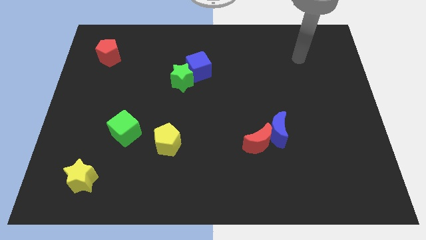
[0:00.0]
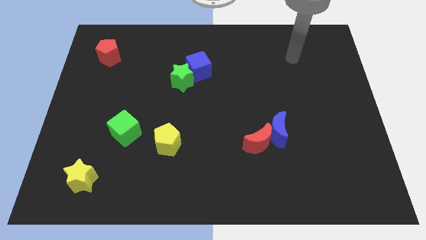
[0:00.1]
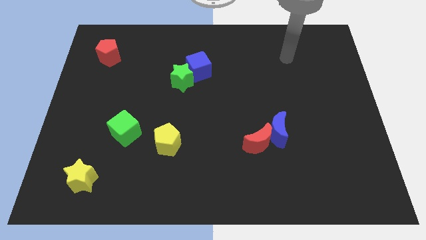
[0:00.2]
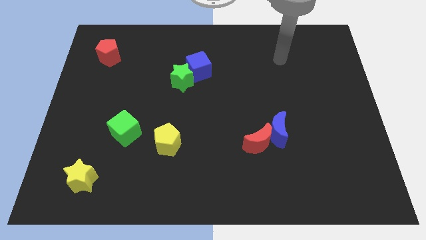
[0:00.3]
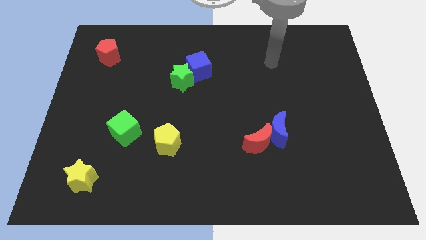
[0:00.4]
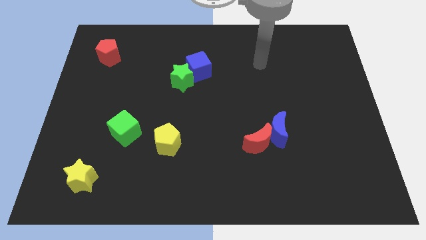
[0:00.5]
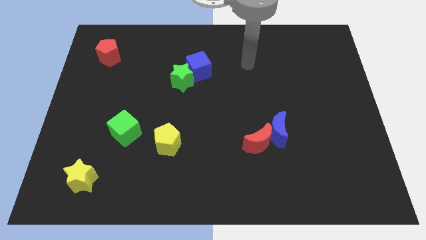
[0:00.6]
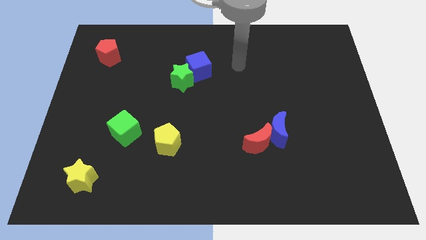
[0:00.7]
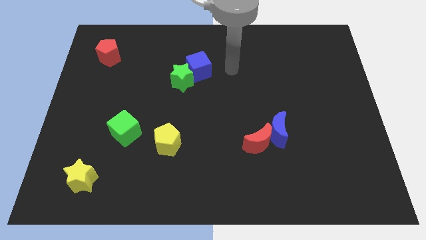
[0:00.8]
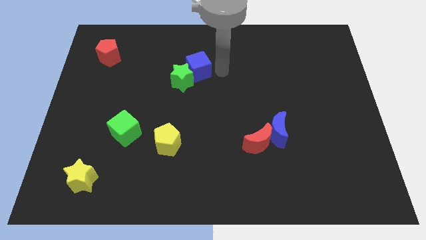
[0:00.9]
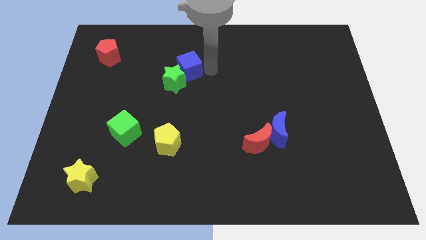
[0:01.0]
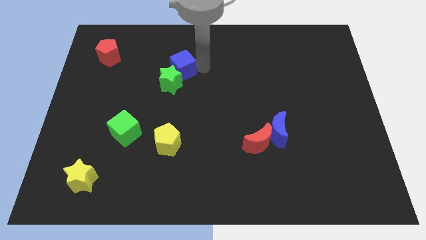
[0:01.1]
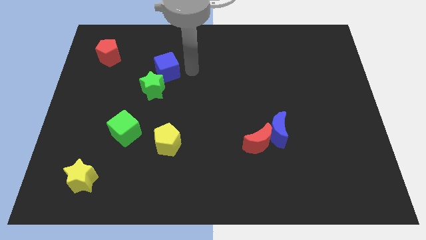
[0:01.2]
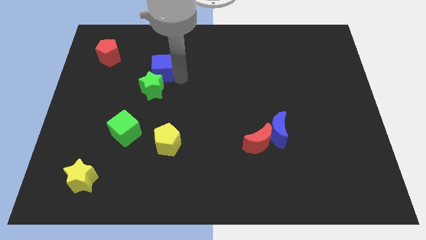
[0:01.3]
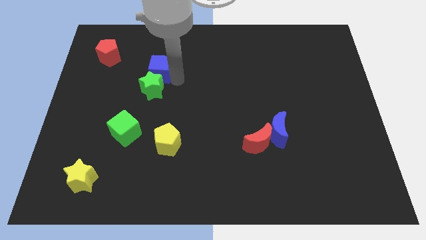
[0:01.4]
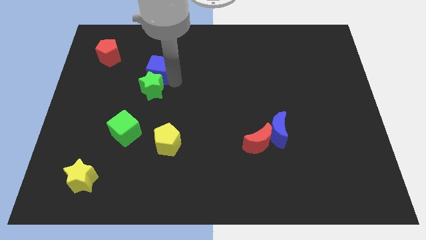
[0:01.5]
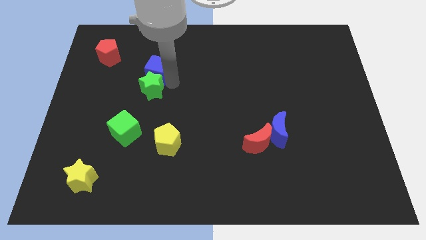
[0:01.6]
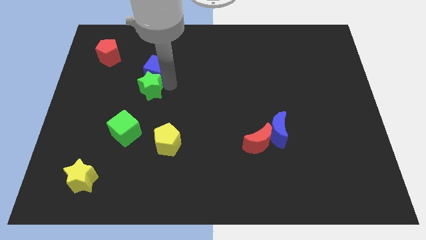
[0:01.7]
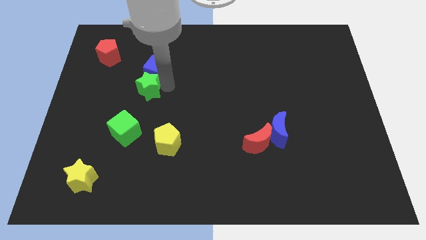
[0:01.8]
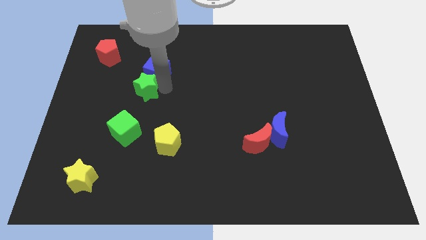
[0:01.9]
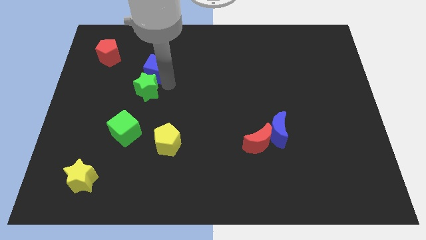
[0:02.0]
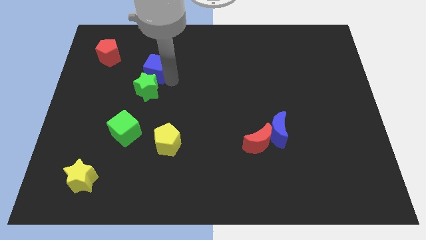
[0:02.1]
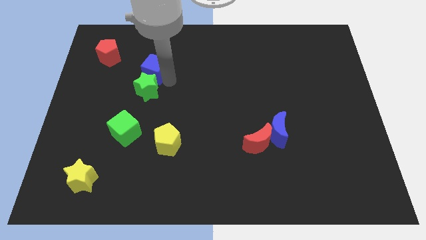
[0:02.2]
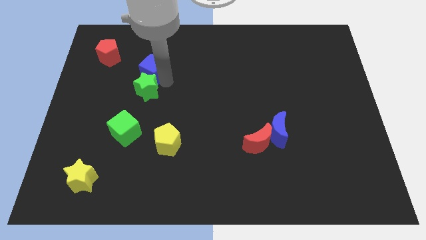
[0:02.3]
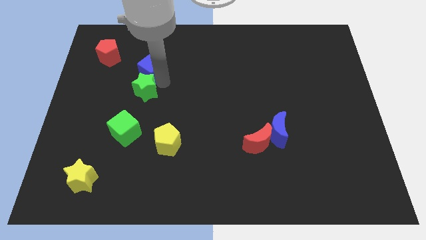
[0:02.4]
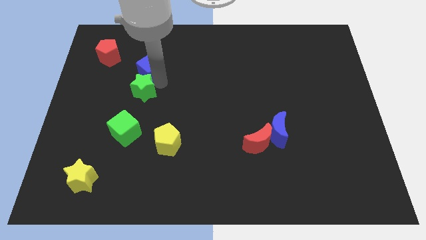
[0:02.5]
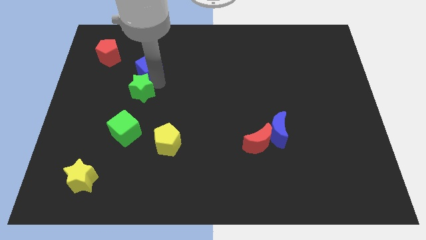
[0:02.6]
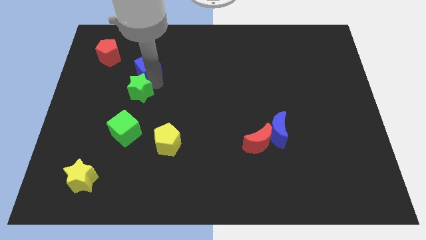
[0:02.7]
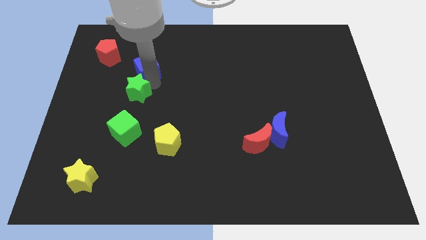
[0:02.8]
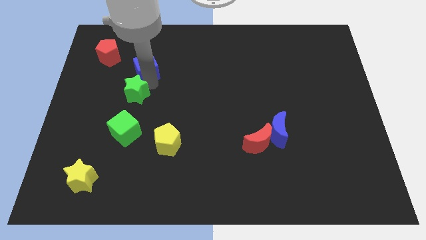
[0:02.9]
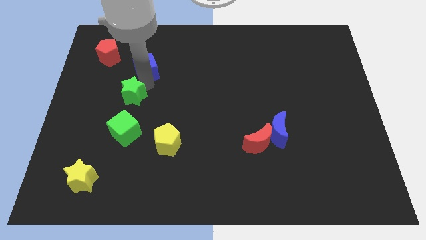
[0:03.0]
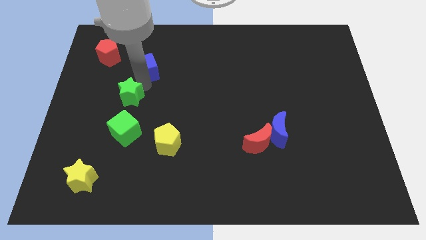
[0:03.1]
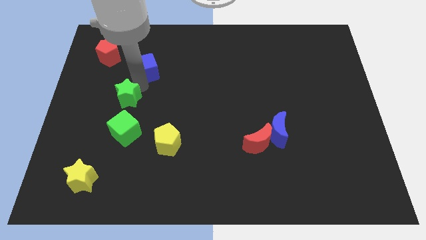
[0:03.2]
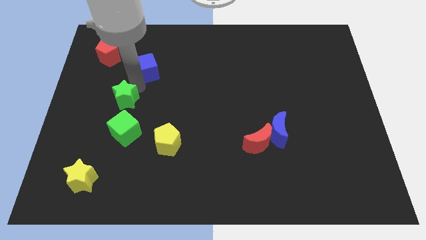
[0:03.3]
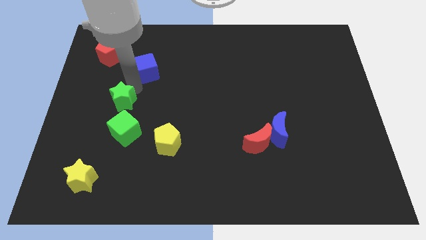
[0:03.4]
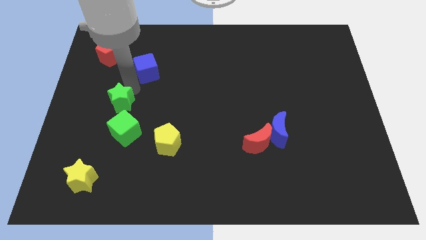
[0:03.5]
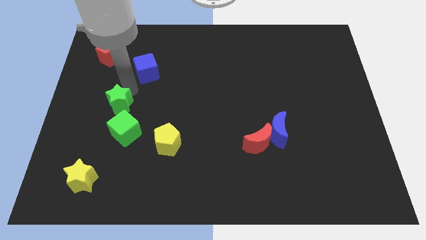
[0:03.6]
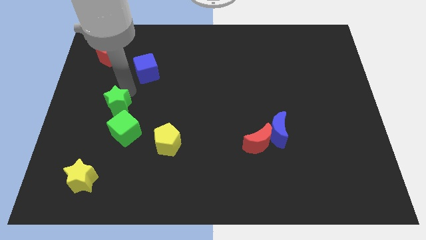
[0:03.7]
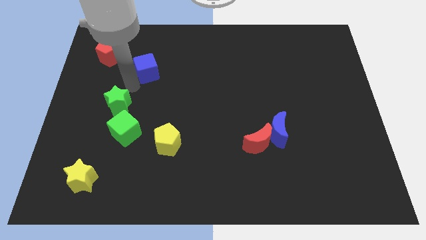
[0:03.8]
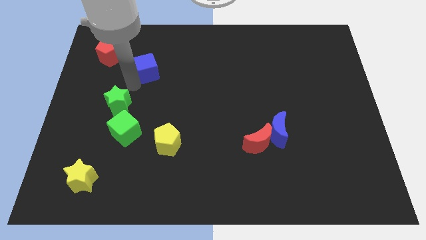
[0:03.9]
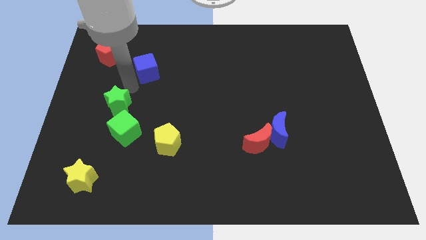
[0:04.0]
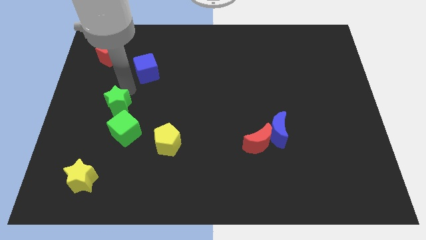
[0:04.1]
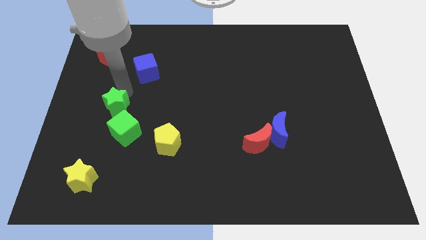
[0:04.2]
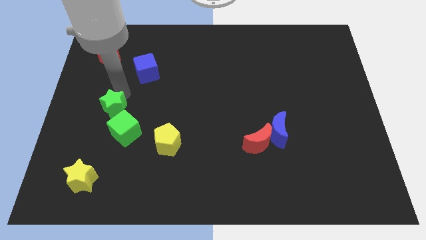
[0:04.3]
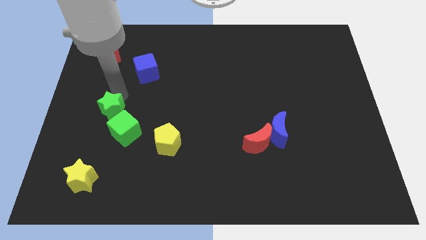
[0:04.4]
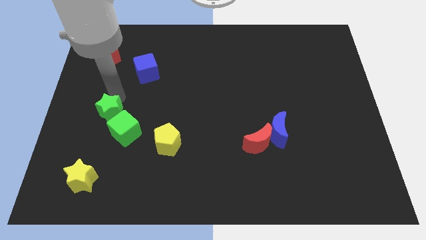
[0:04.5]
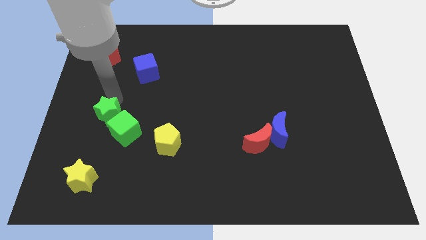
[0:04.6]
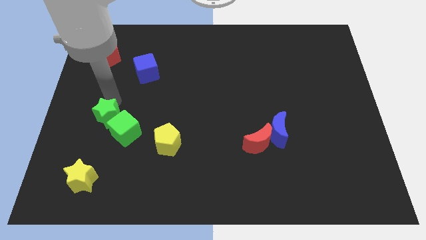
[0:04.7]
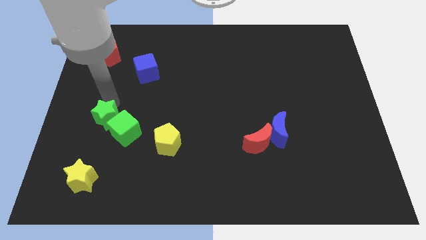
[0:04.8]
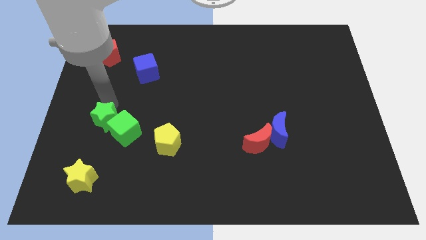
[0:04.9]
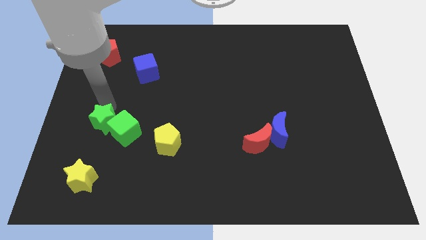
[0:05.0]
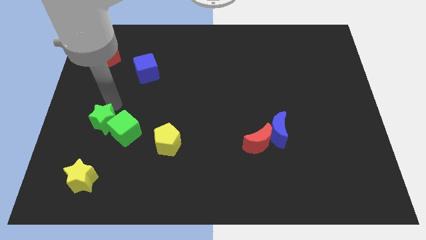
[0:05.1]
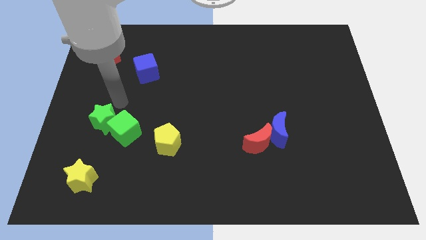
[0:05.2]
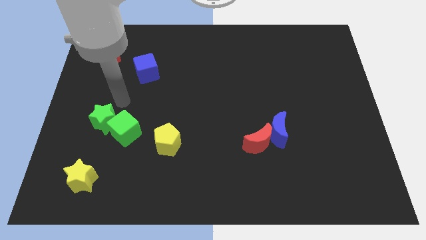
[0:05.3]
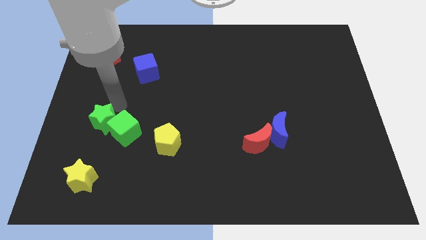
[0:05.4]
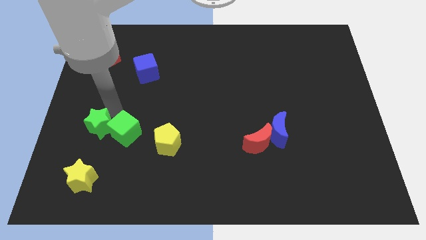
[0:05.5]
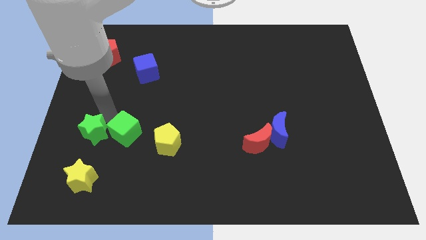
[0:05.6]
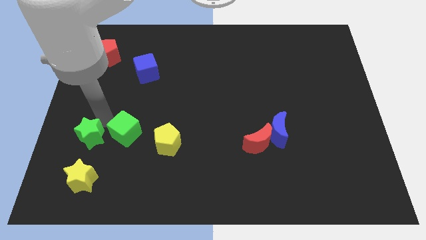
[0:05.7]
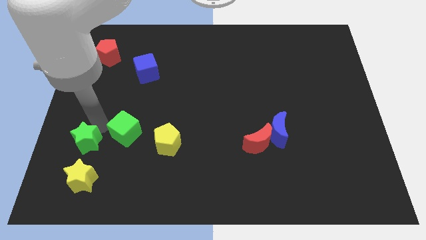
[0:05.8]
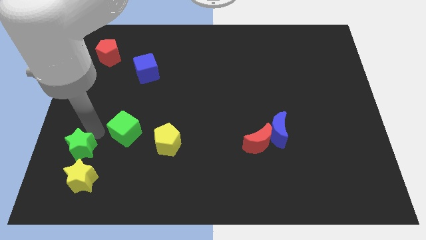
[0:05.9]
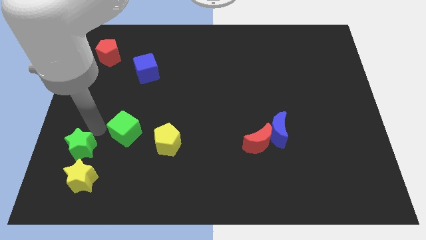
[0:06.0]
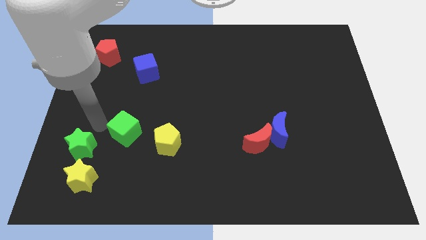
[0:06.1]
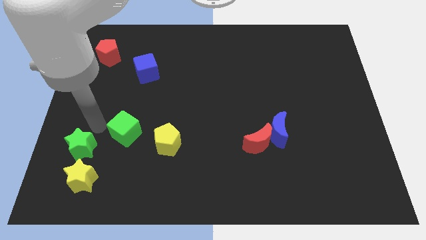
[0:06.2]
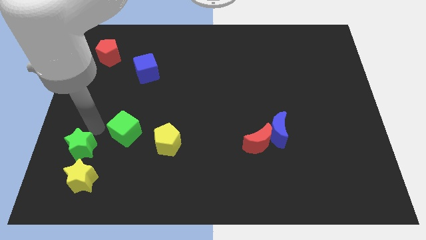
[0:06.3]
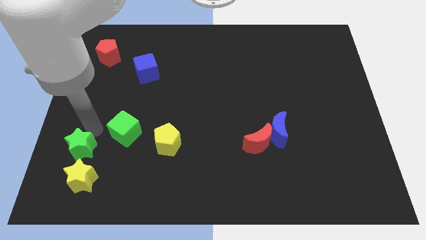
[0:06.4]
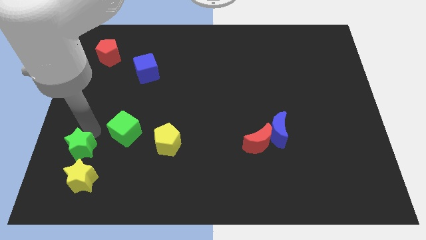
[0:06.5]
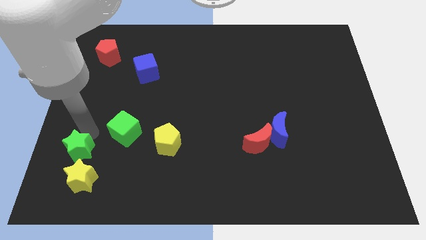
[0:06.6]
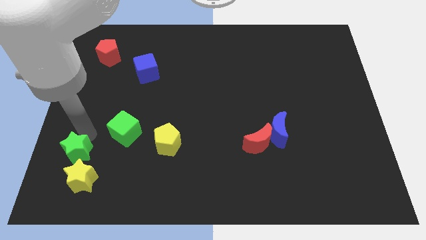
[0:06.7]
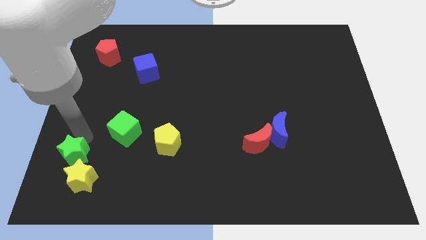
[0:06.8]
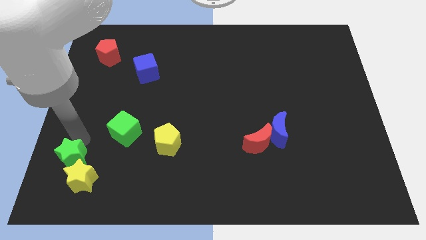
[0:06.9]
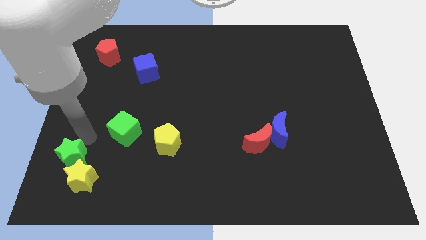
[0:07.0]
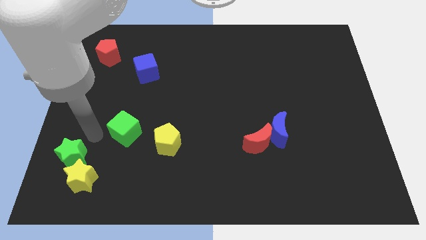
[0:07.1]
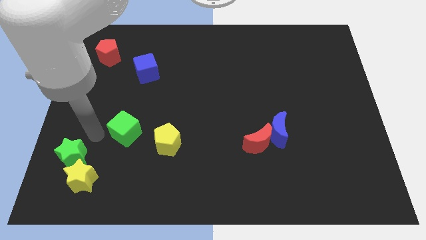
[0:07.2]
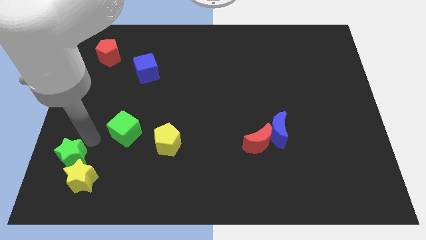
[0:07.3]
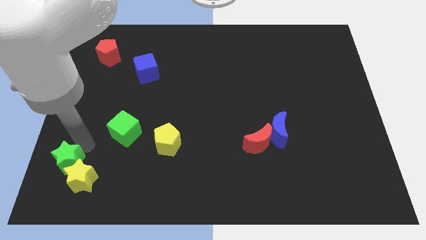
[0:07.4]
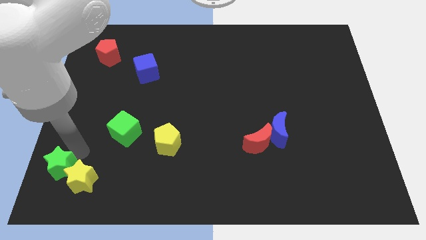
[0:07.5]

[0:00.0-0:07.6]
push the green star to the bottom left of the board
